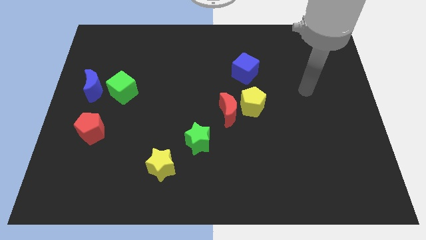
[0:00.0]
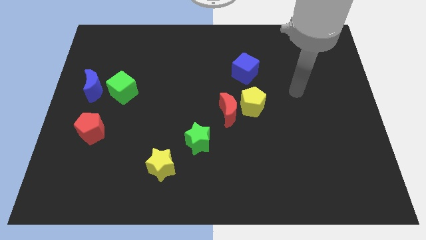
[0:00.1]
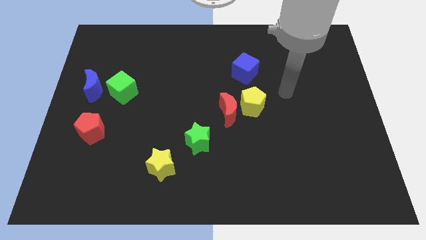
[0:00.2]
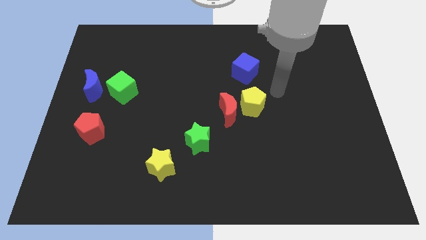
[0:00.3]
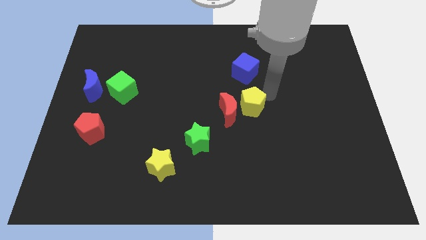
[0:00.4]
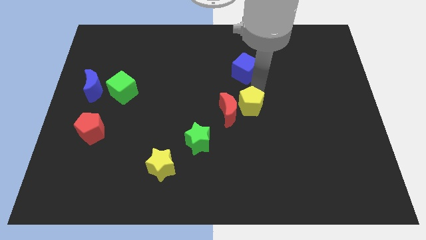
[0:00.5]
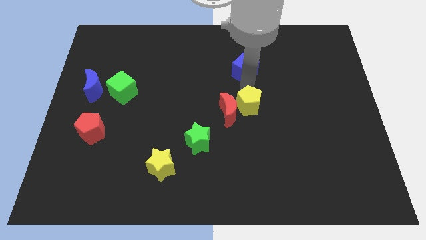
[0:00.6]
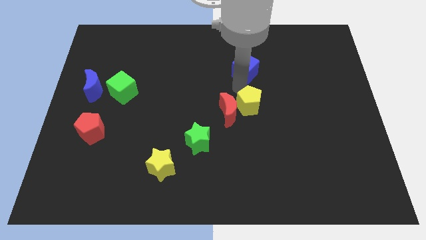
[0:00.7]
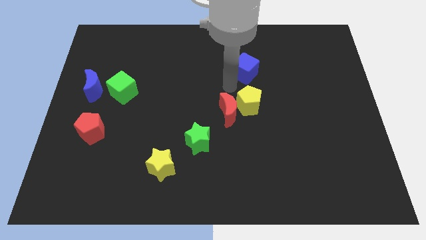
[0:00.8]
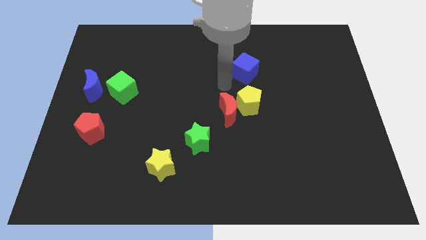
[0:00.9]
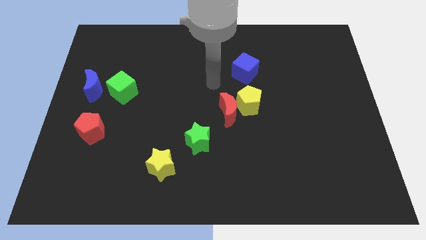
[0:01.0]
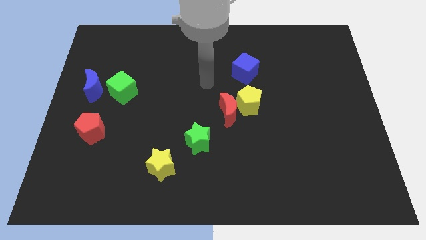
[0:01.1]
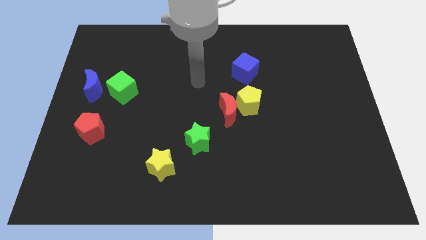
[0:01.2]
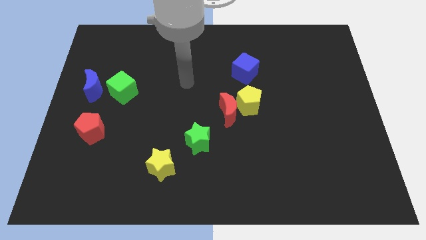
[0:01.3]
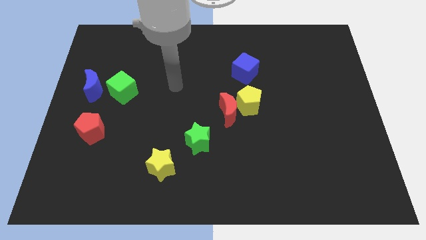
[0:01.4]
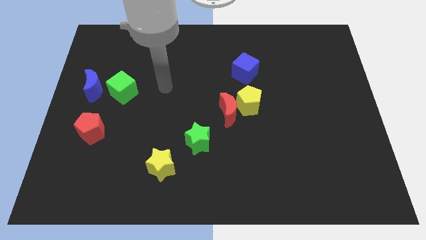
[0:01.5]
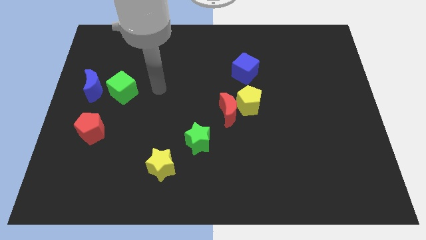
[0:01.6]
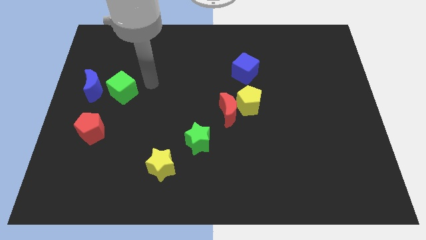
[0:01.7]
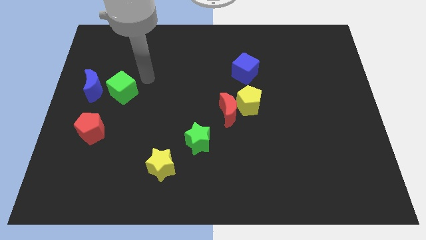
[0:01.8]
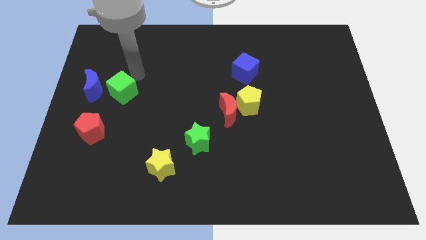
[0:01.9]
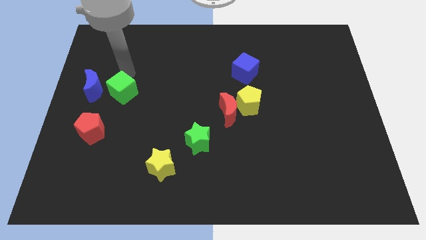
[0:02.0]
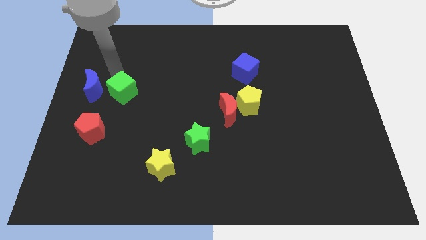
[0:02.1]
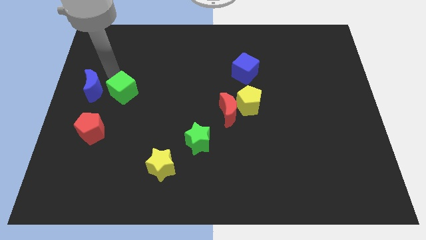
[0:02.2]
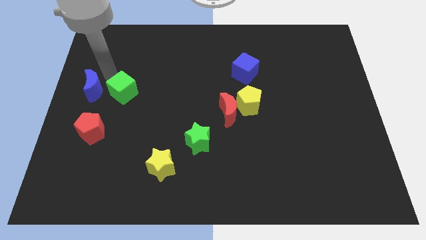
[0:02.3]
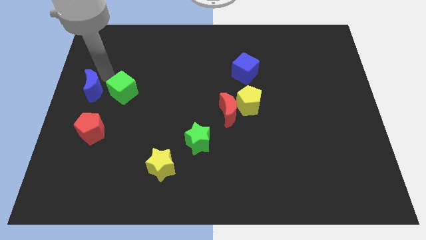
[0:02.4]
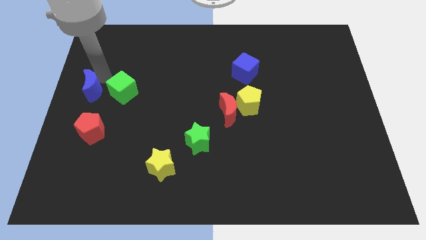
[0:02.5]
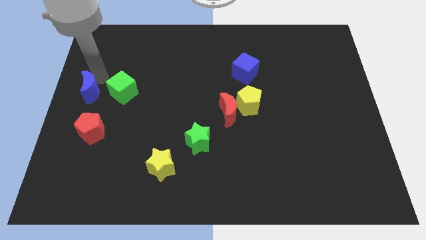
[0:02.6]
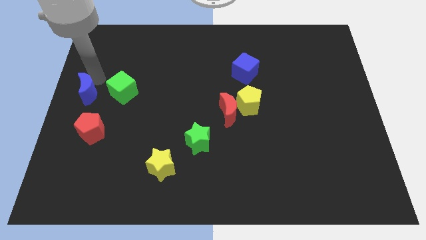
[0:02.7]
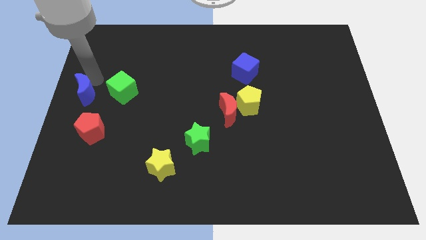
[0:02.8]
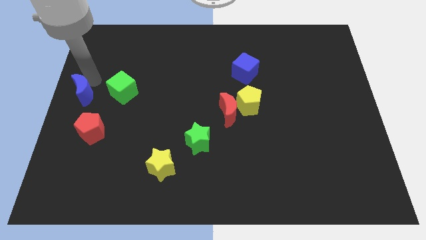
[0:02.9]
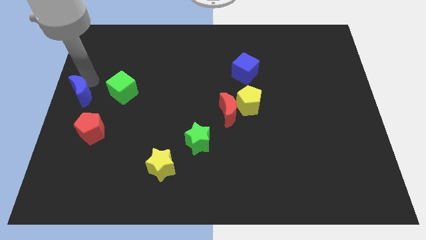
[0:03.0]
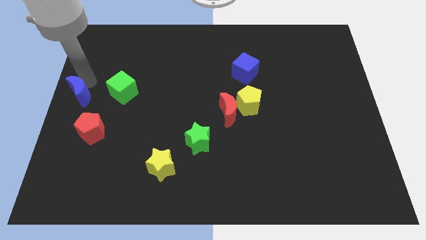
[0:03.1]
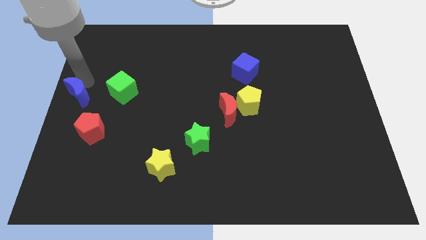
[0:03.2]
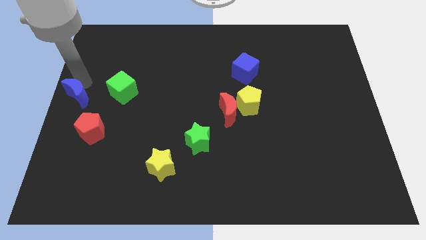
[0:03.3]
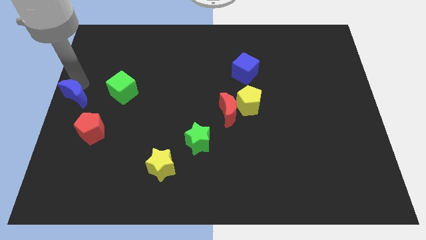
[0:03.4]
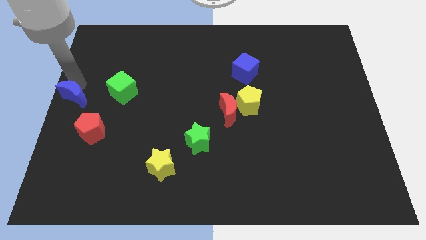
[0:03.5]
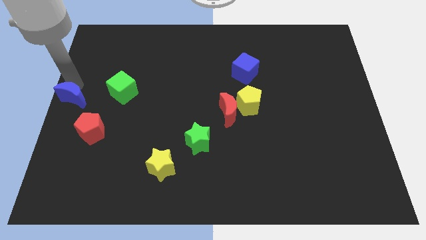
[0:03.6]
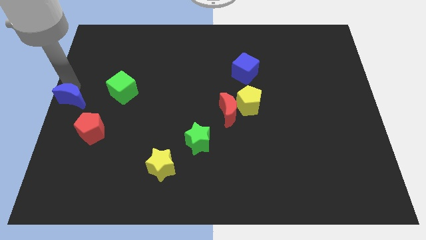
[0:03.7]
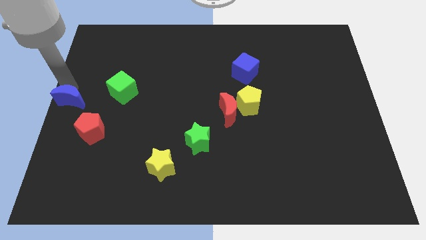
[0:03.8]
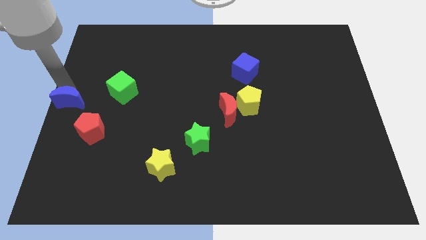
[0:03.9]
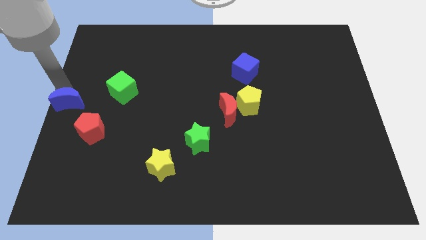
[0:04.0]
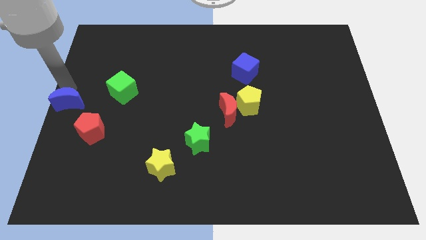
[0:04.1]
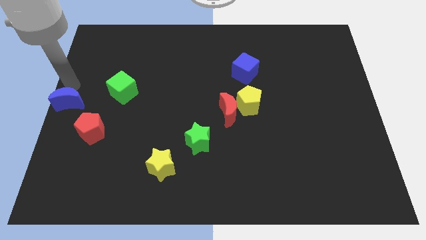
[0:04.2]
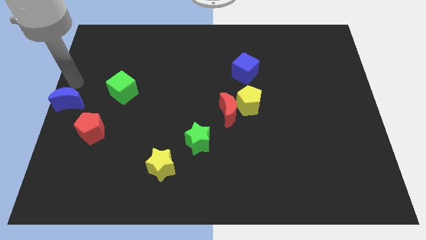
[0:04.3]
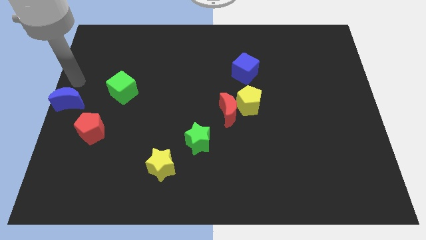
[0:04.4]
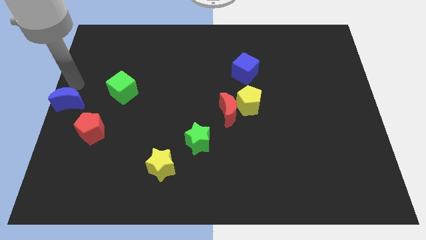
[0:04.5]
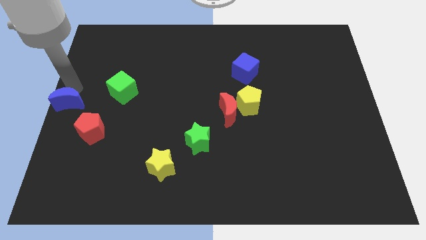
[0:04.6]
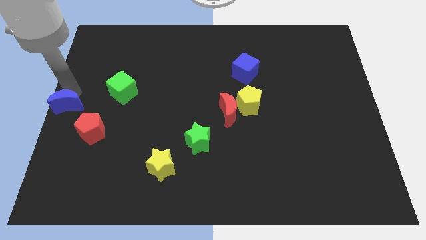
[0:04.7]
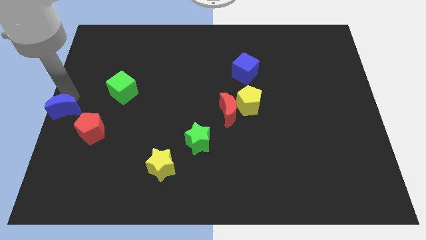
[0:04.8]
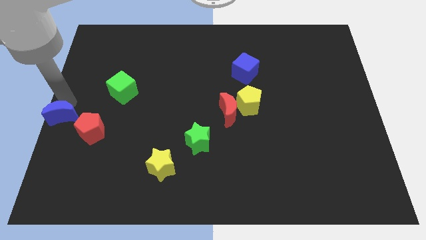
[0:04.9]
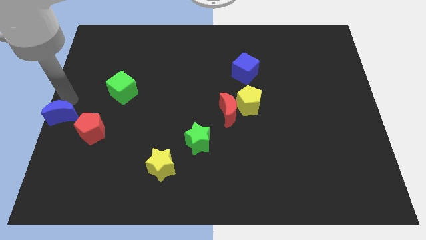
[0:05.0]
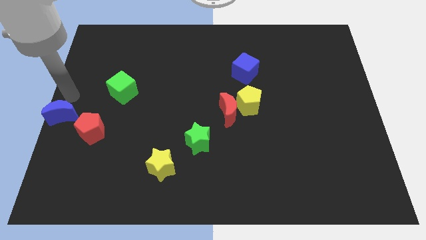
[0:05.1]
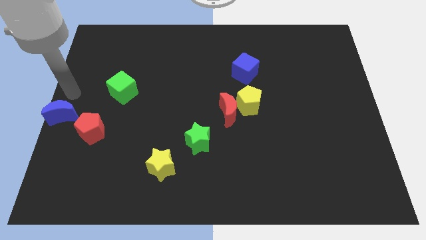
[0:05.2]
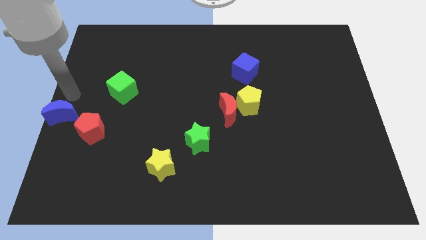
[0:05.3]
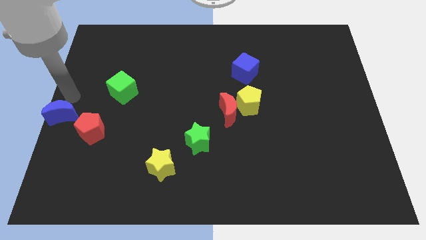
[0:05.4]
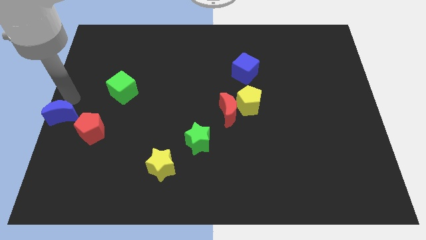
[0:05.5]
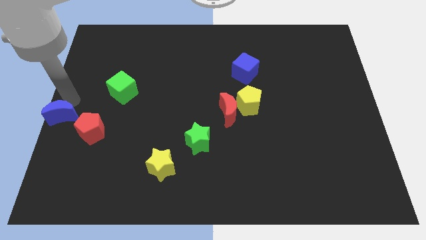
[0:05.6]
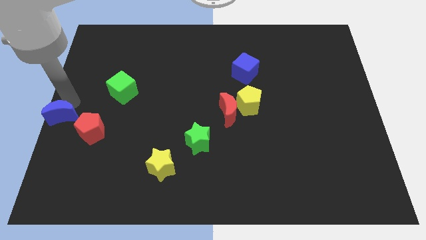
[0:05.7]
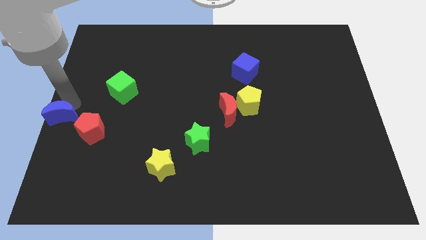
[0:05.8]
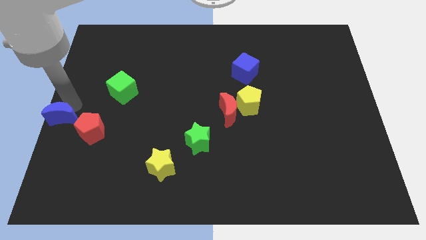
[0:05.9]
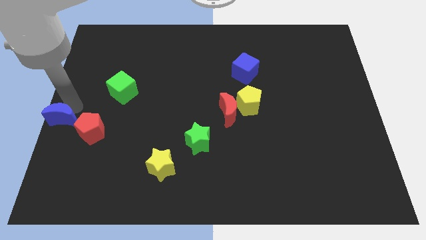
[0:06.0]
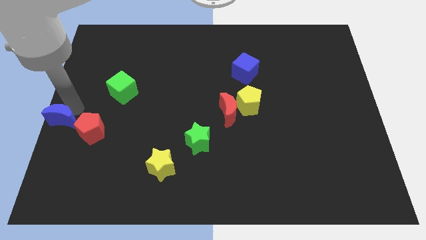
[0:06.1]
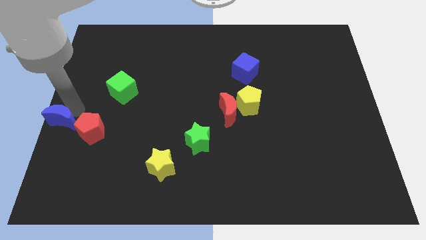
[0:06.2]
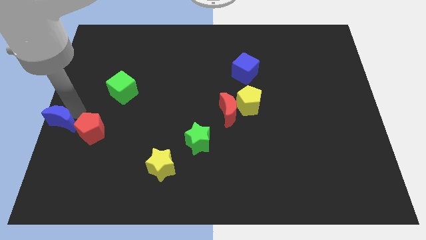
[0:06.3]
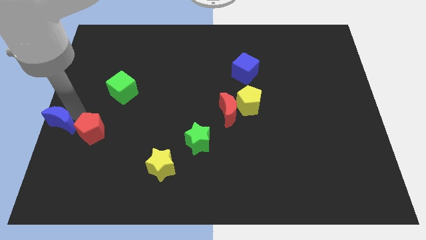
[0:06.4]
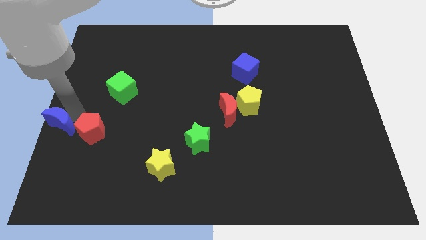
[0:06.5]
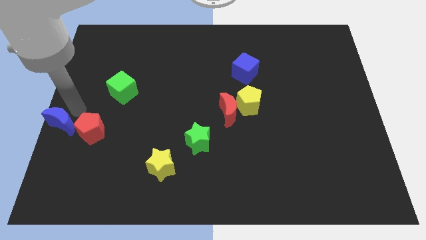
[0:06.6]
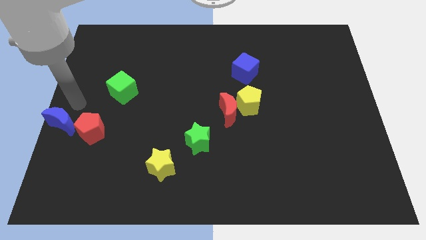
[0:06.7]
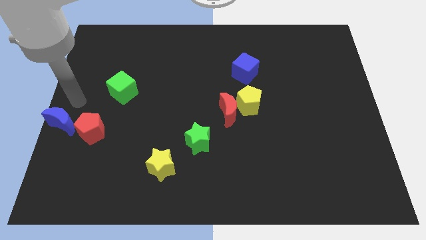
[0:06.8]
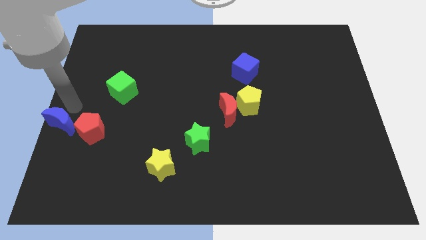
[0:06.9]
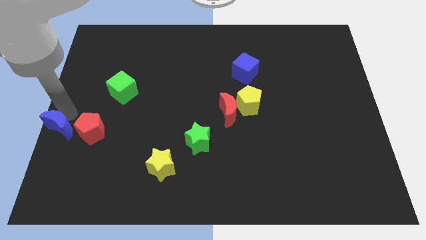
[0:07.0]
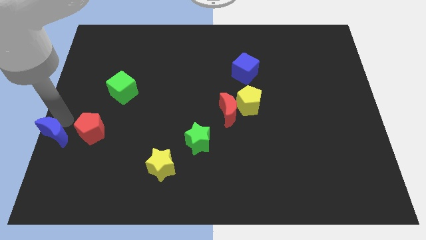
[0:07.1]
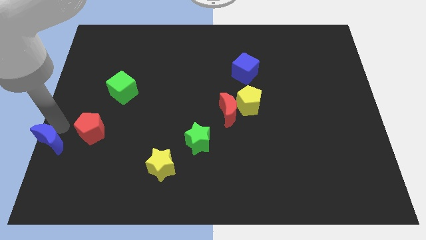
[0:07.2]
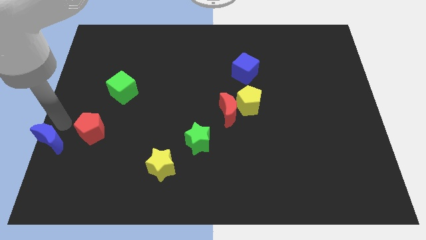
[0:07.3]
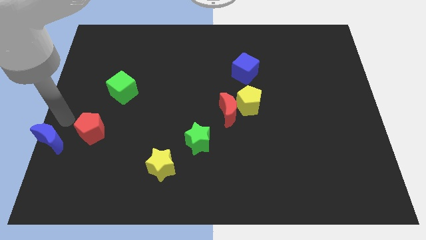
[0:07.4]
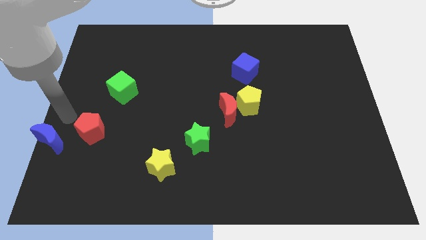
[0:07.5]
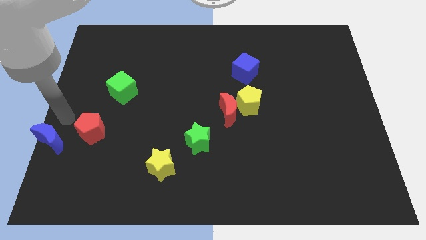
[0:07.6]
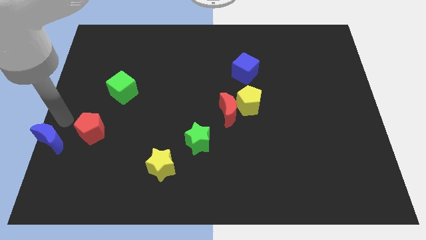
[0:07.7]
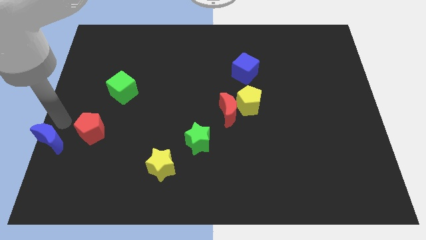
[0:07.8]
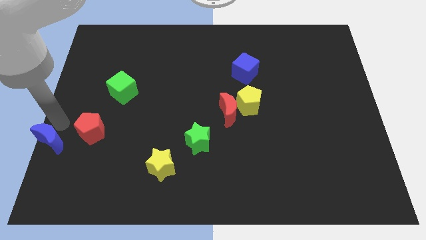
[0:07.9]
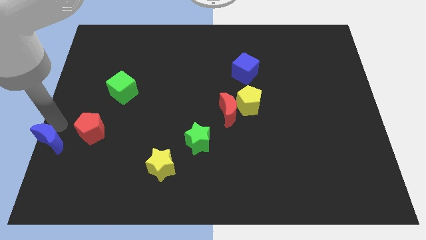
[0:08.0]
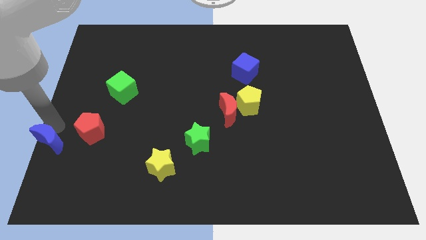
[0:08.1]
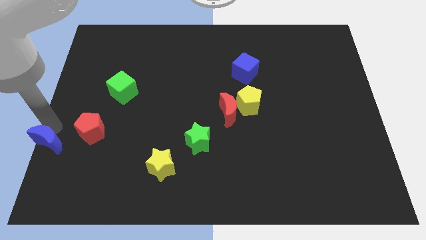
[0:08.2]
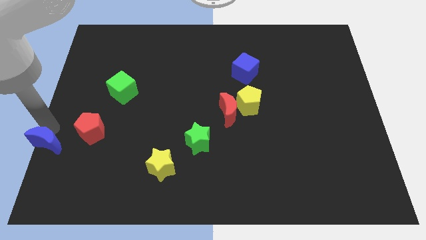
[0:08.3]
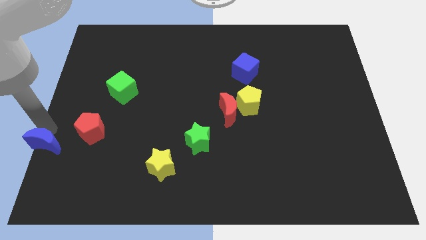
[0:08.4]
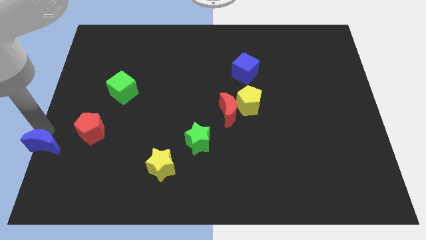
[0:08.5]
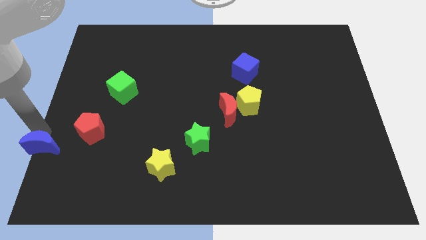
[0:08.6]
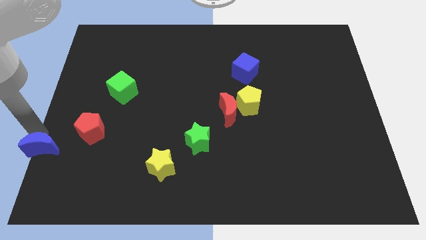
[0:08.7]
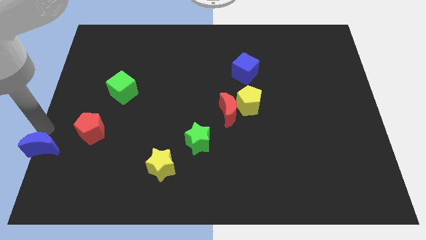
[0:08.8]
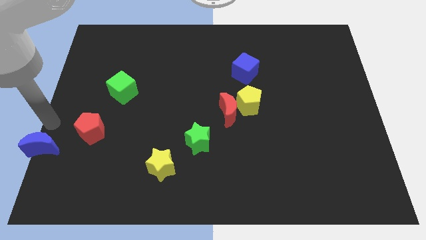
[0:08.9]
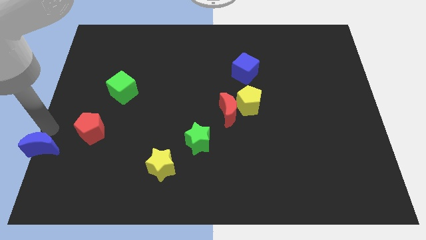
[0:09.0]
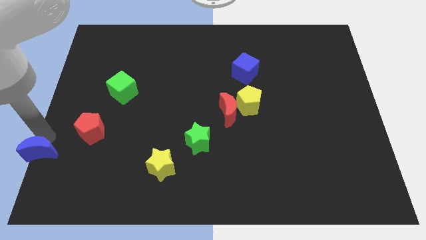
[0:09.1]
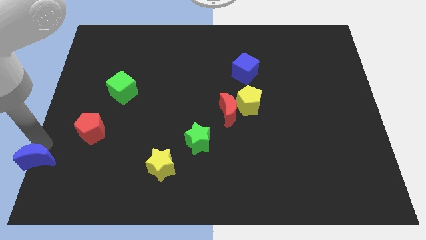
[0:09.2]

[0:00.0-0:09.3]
slide the blue moon to the bottom left corner
